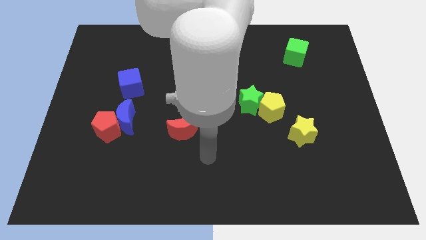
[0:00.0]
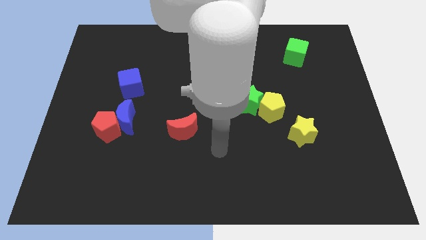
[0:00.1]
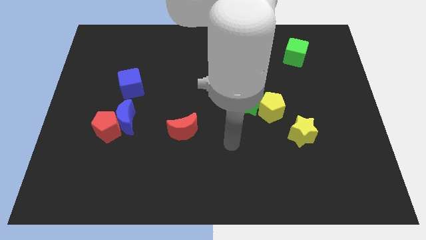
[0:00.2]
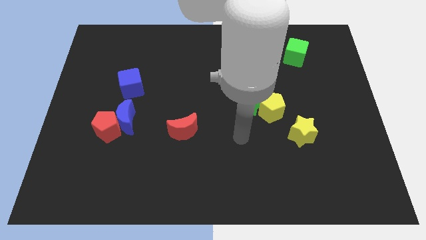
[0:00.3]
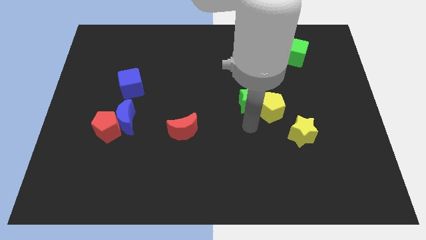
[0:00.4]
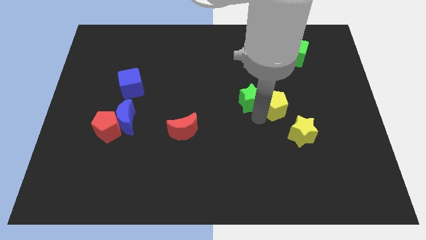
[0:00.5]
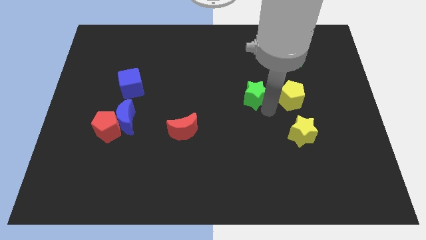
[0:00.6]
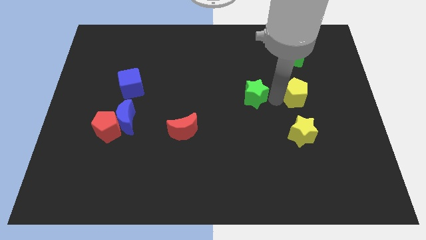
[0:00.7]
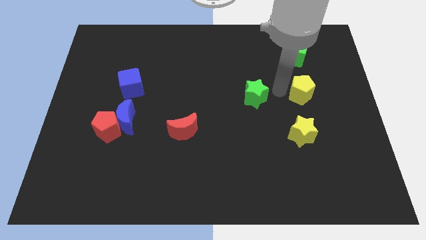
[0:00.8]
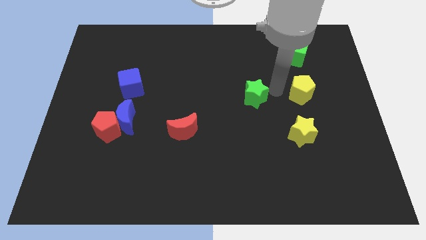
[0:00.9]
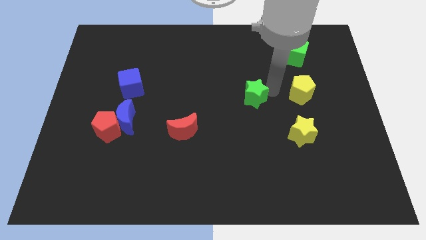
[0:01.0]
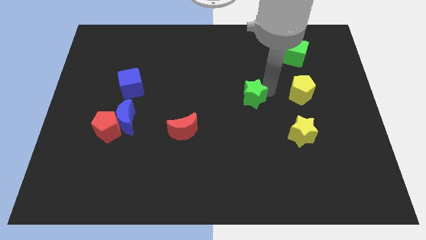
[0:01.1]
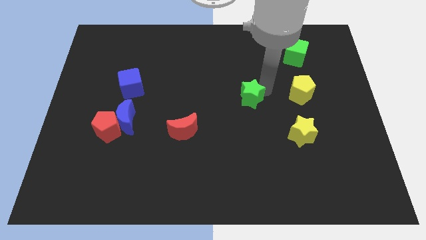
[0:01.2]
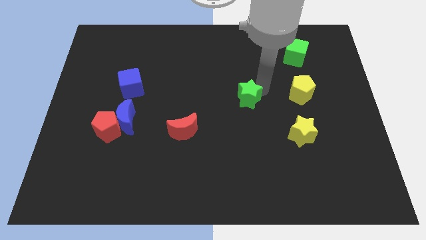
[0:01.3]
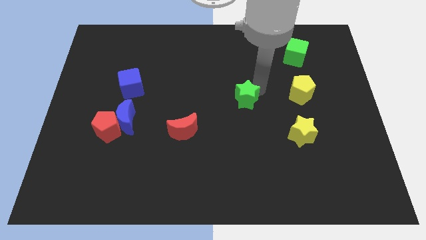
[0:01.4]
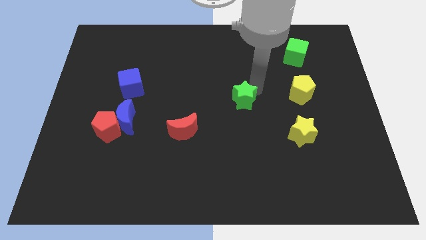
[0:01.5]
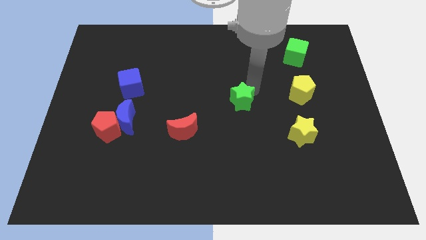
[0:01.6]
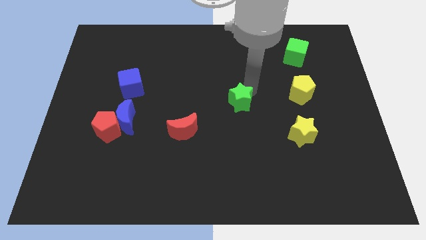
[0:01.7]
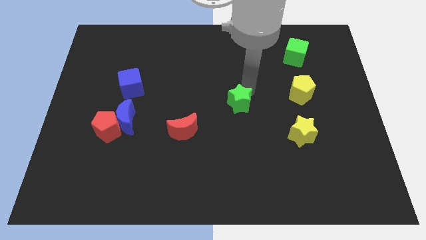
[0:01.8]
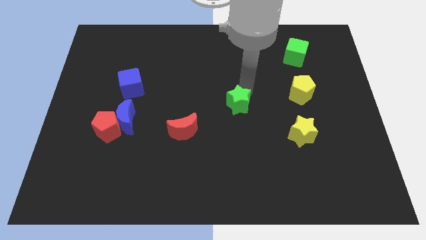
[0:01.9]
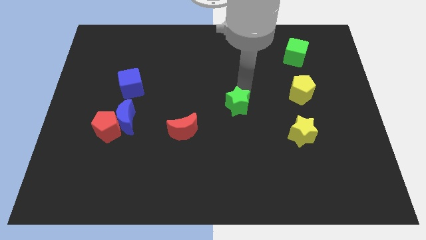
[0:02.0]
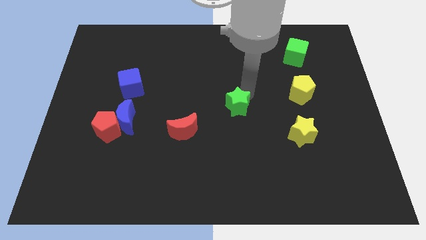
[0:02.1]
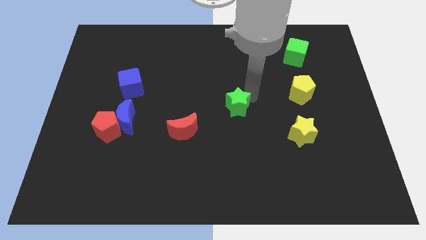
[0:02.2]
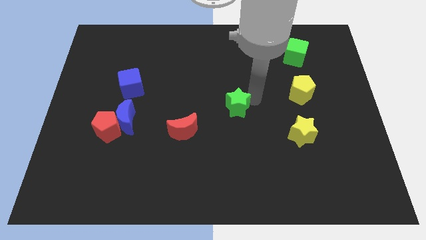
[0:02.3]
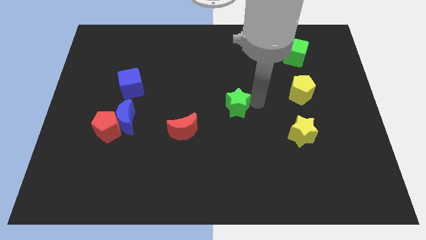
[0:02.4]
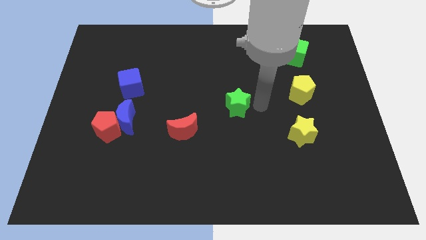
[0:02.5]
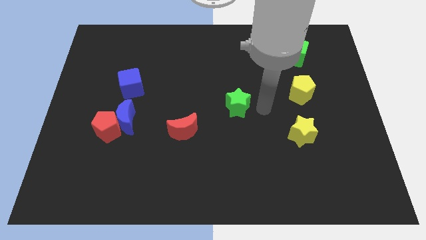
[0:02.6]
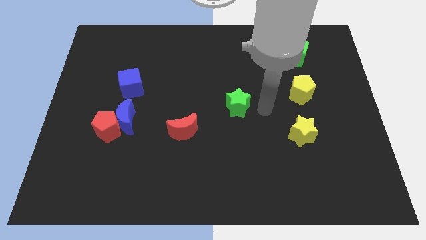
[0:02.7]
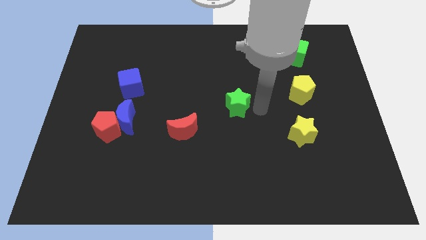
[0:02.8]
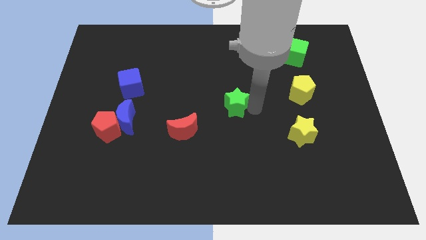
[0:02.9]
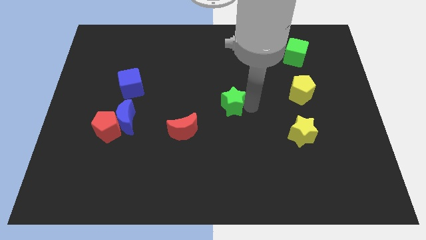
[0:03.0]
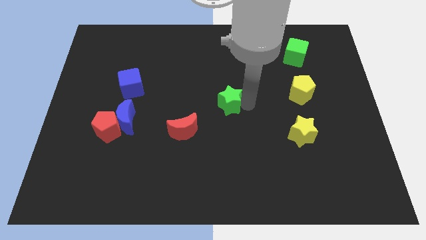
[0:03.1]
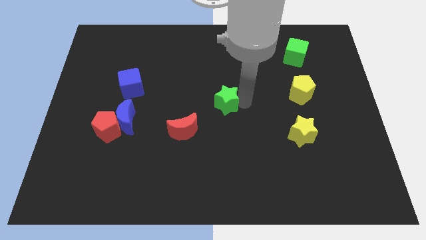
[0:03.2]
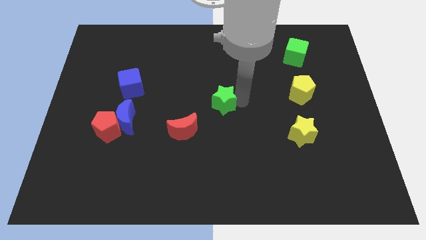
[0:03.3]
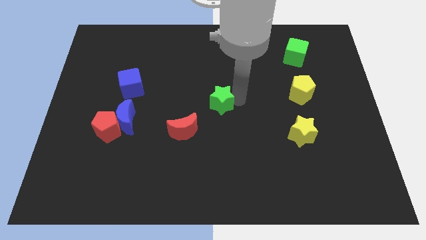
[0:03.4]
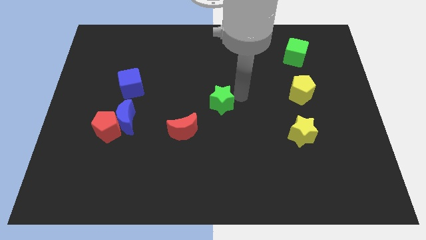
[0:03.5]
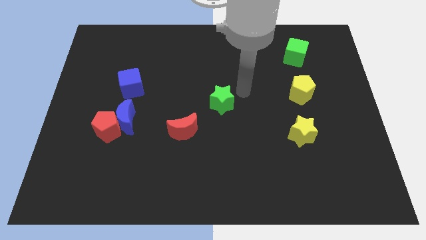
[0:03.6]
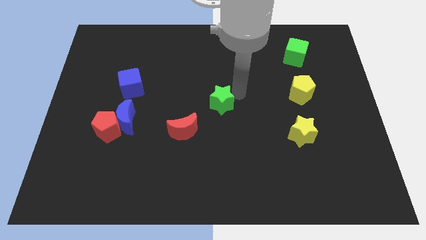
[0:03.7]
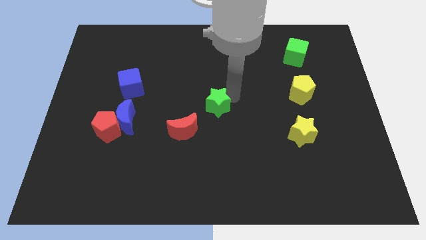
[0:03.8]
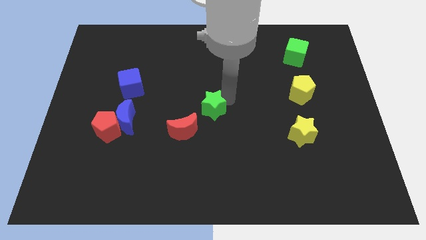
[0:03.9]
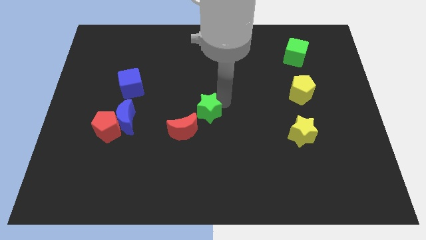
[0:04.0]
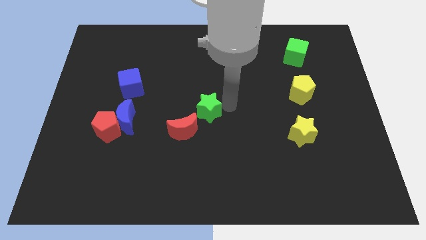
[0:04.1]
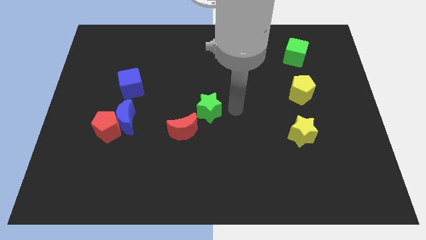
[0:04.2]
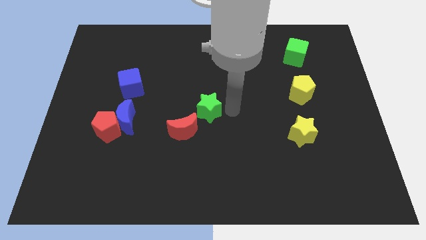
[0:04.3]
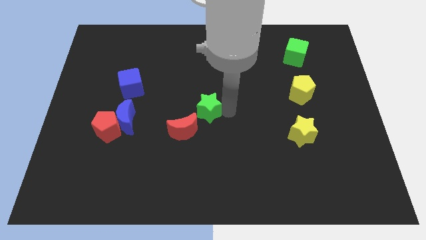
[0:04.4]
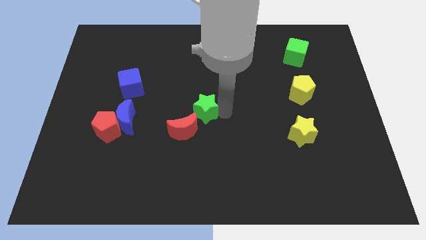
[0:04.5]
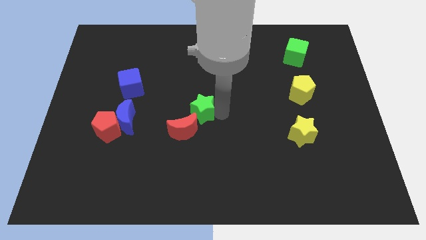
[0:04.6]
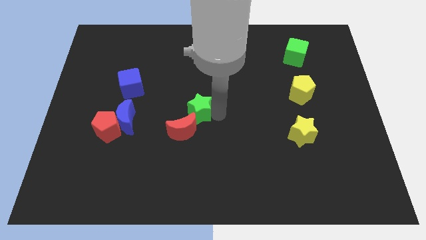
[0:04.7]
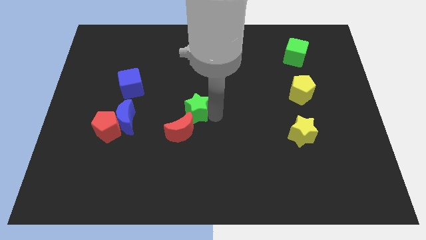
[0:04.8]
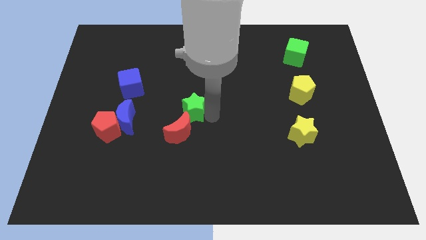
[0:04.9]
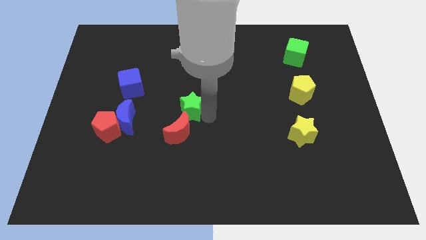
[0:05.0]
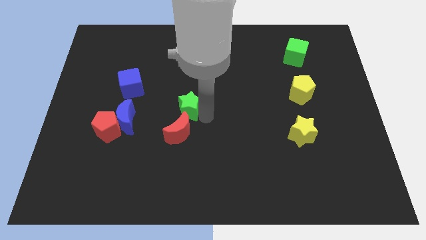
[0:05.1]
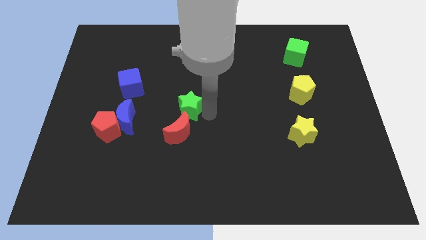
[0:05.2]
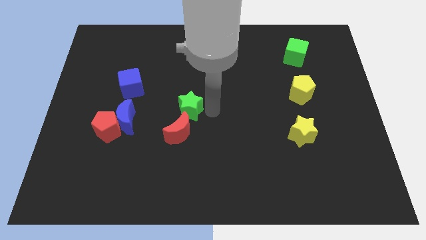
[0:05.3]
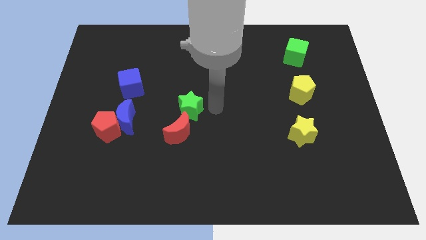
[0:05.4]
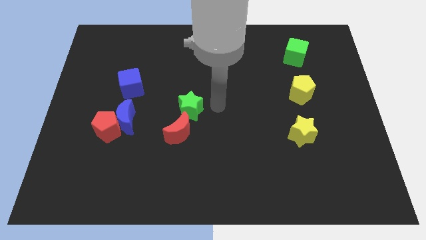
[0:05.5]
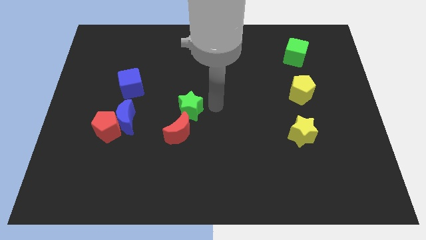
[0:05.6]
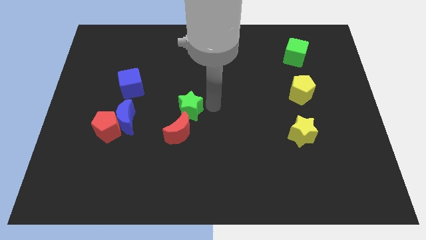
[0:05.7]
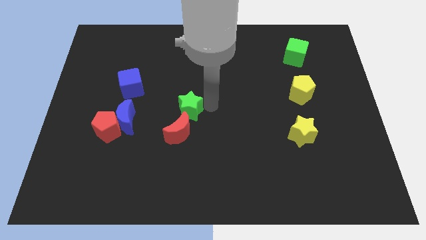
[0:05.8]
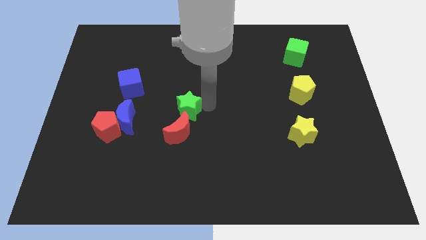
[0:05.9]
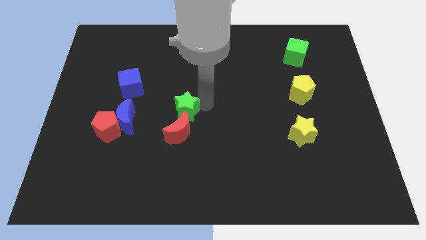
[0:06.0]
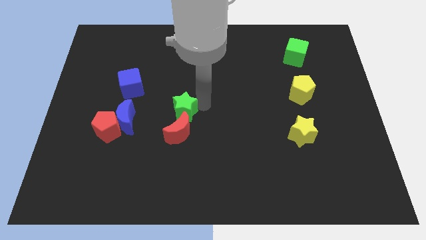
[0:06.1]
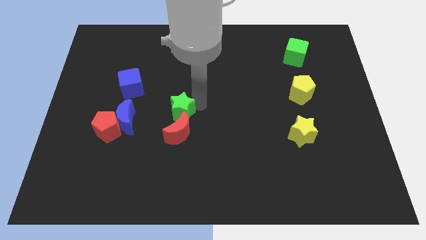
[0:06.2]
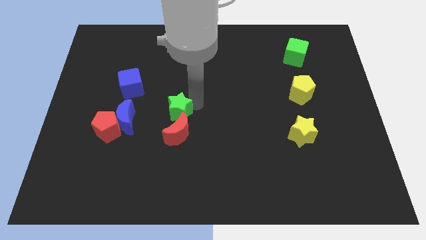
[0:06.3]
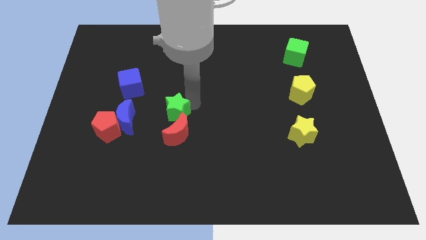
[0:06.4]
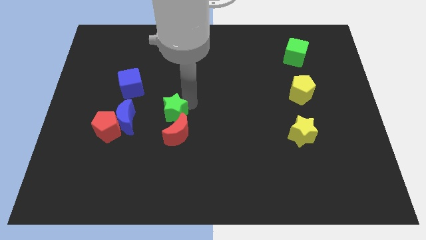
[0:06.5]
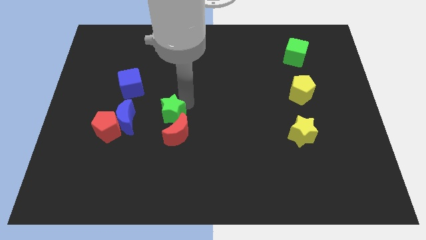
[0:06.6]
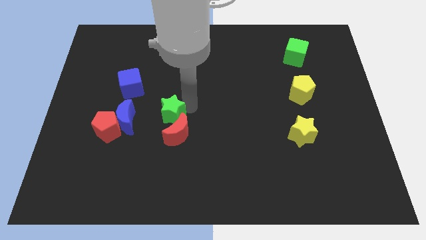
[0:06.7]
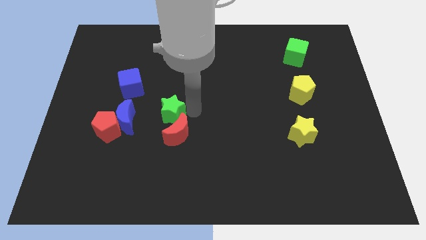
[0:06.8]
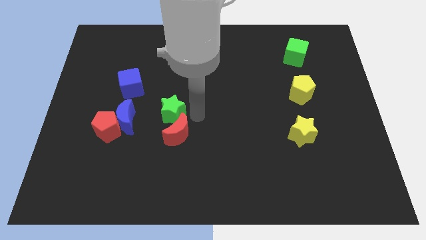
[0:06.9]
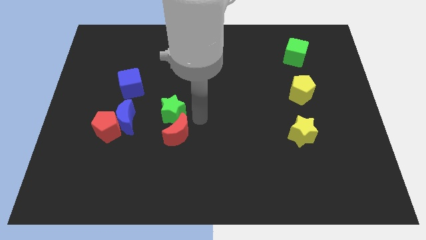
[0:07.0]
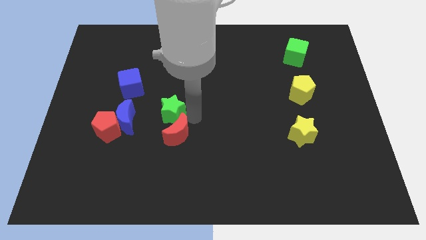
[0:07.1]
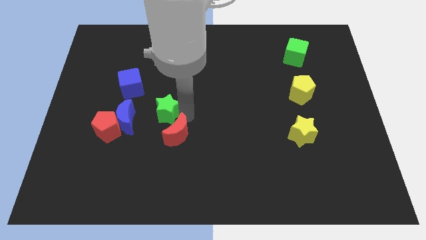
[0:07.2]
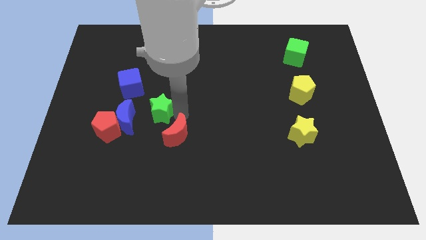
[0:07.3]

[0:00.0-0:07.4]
push the green star left

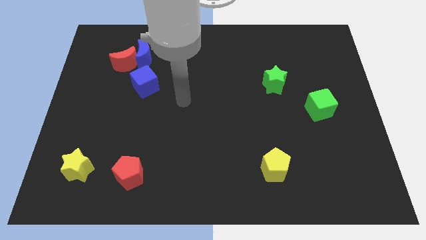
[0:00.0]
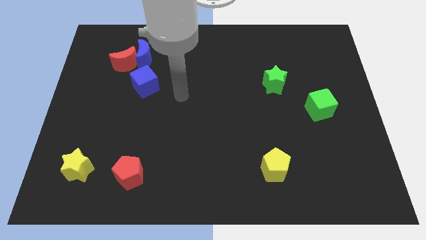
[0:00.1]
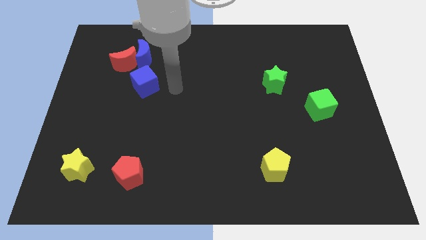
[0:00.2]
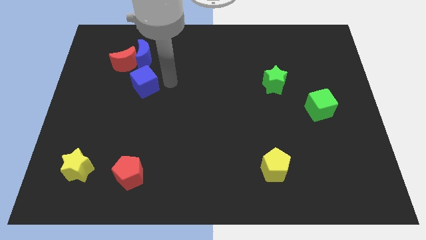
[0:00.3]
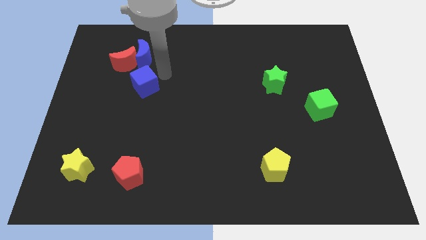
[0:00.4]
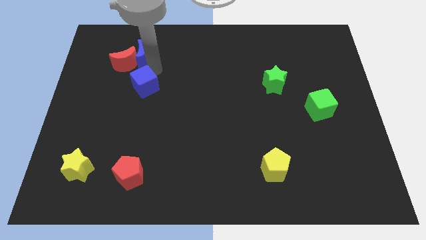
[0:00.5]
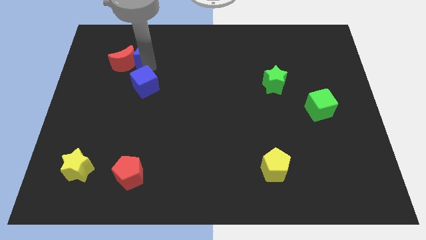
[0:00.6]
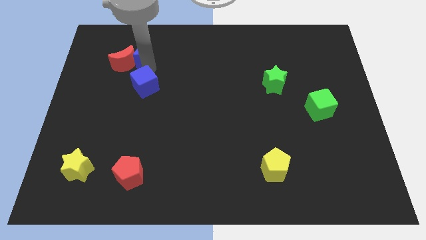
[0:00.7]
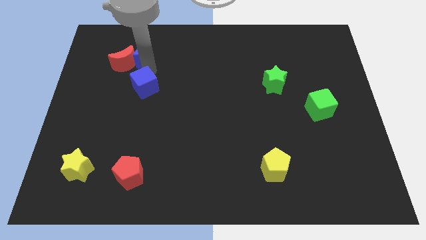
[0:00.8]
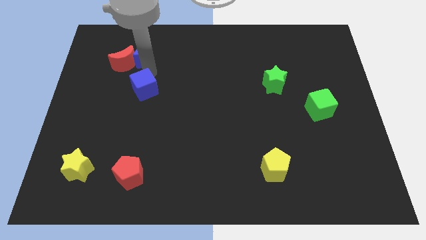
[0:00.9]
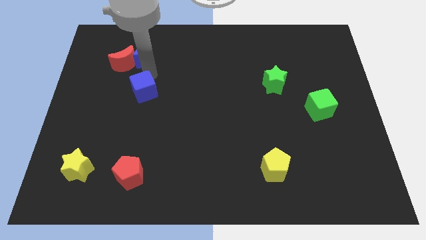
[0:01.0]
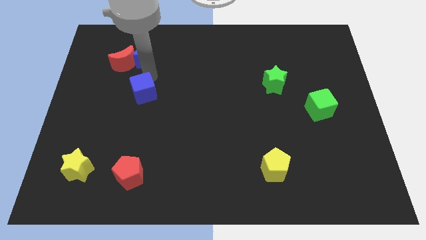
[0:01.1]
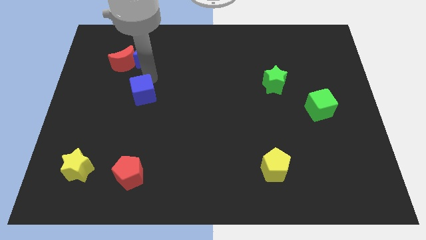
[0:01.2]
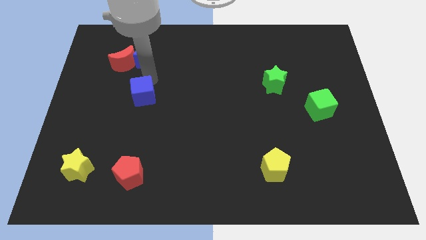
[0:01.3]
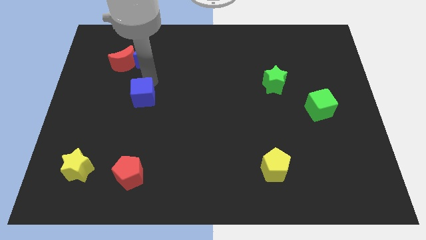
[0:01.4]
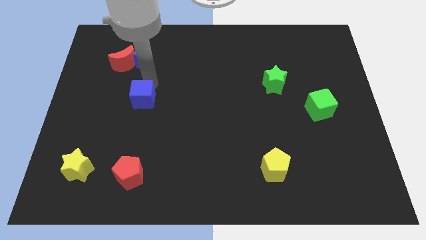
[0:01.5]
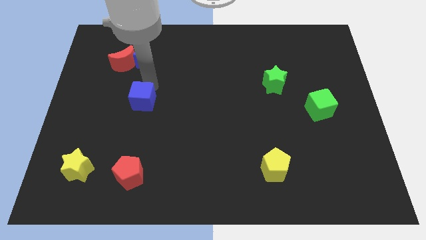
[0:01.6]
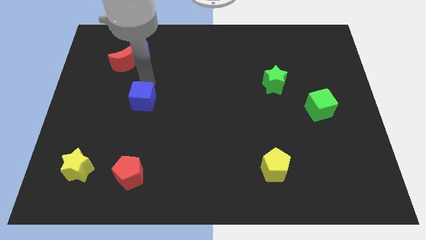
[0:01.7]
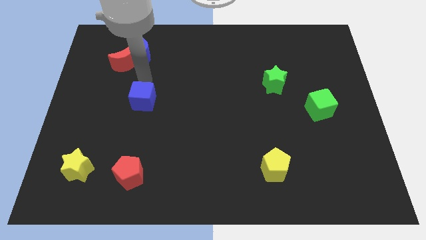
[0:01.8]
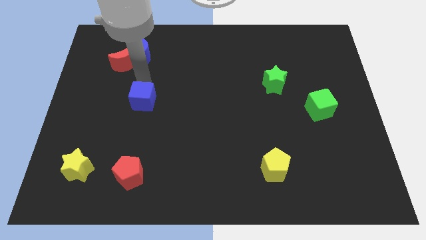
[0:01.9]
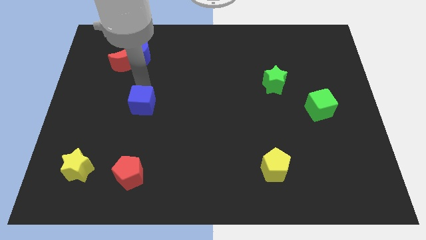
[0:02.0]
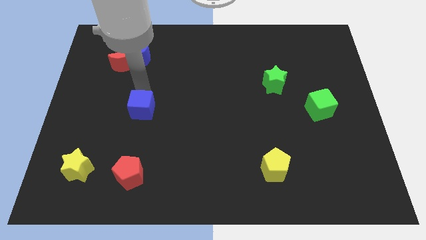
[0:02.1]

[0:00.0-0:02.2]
slightly push the blue cube down
